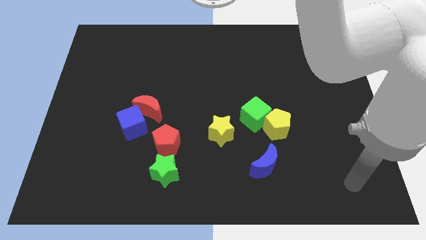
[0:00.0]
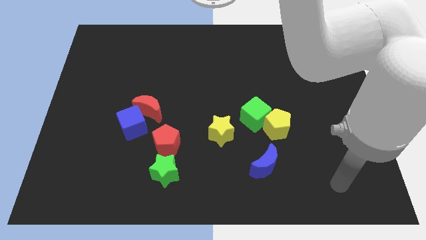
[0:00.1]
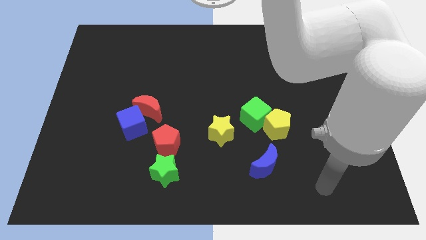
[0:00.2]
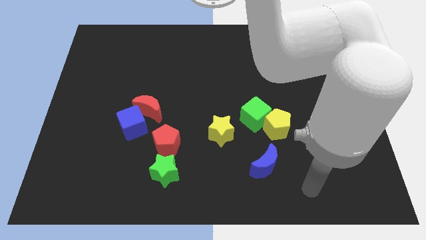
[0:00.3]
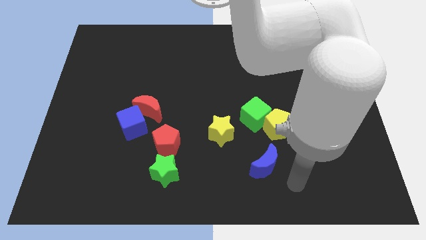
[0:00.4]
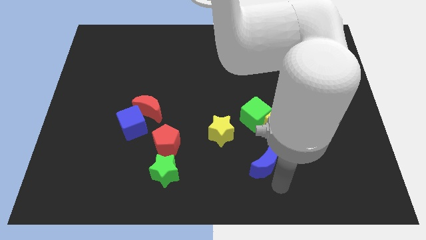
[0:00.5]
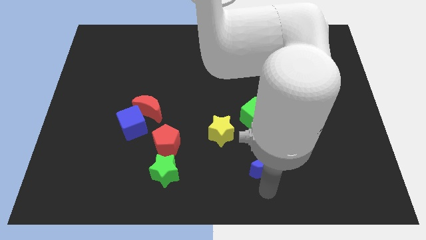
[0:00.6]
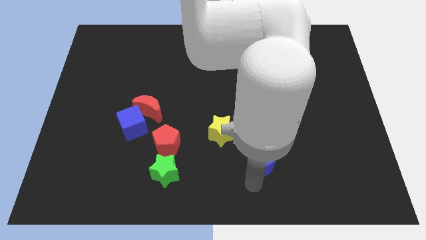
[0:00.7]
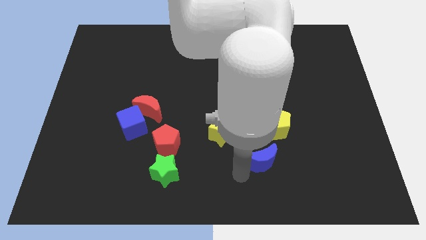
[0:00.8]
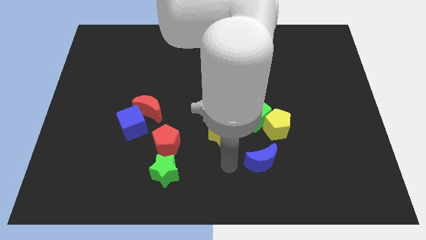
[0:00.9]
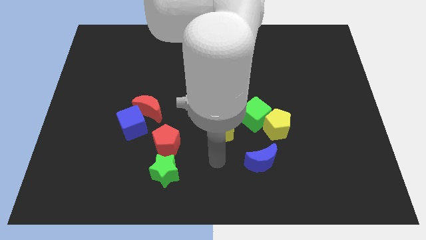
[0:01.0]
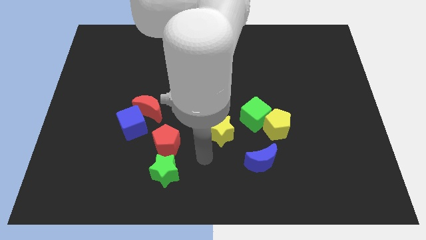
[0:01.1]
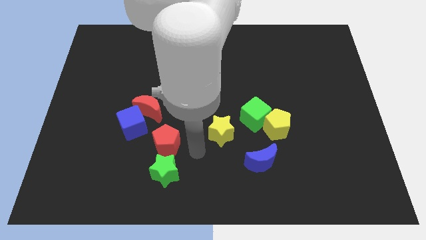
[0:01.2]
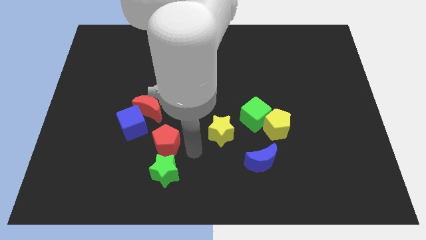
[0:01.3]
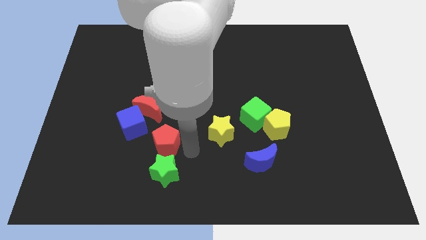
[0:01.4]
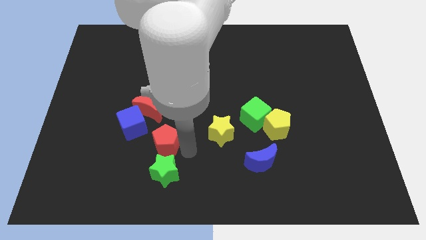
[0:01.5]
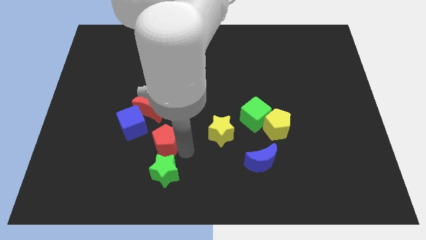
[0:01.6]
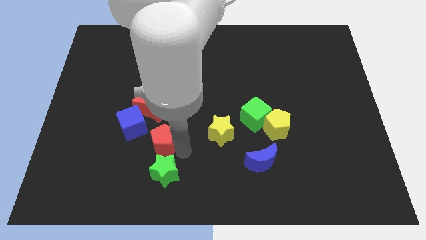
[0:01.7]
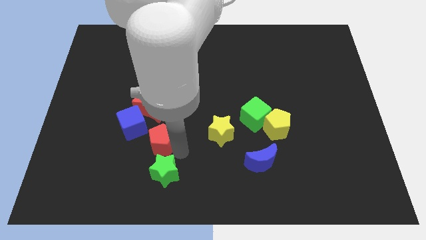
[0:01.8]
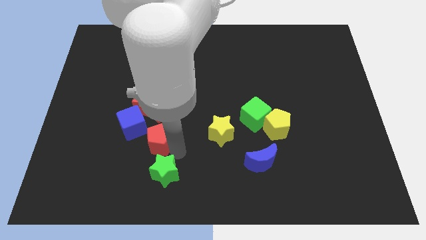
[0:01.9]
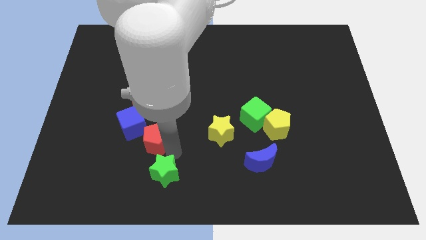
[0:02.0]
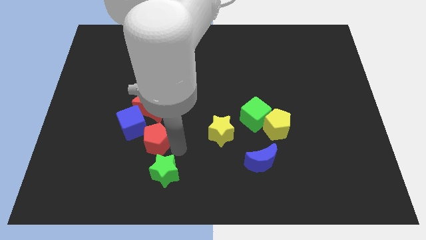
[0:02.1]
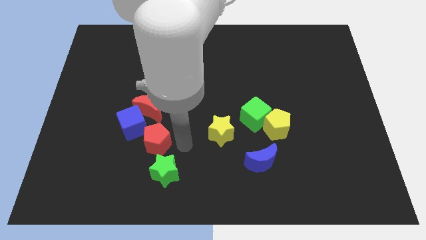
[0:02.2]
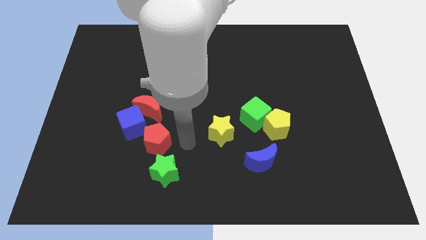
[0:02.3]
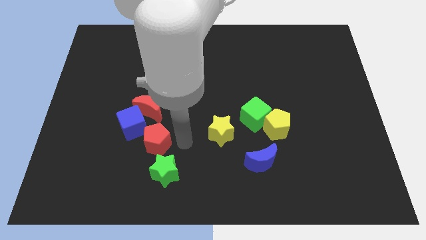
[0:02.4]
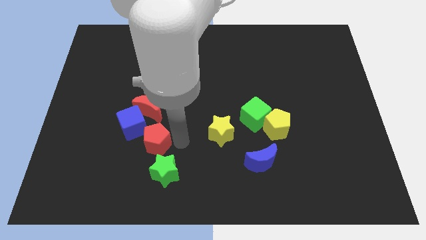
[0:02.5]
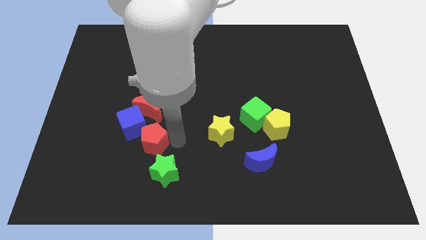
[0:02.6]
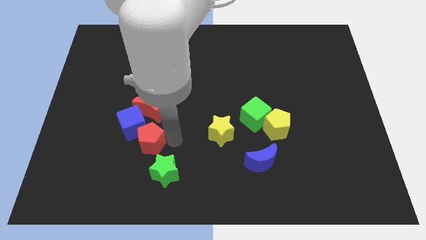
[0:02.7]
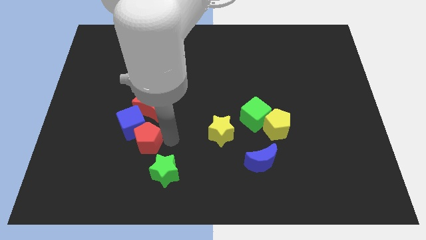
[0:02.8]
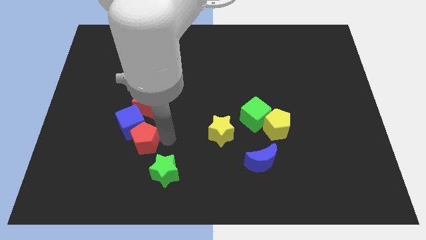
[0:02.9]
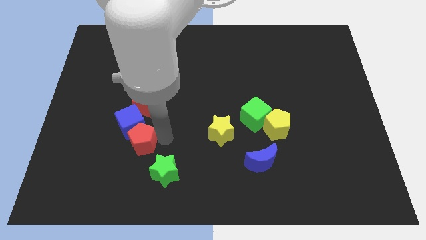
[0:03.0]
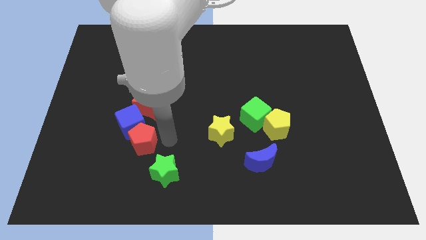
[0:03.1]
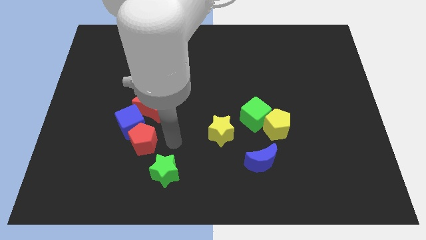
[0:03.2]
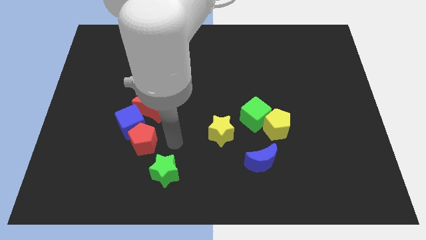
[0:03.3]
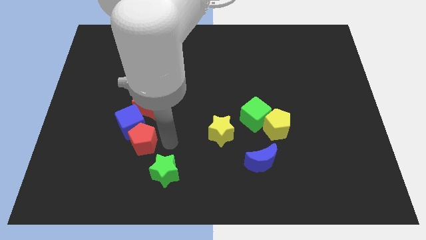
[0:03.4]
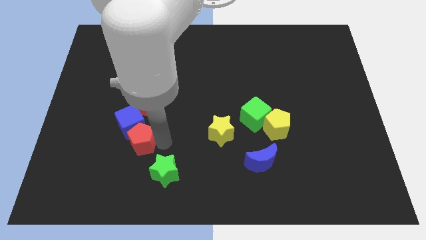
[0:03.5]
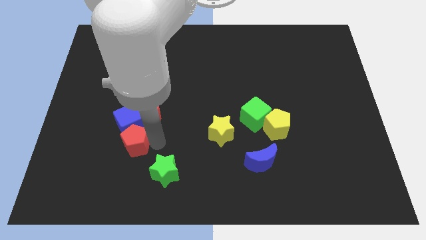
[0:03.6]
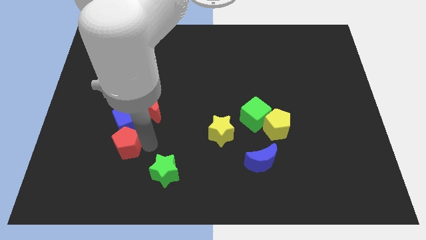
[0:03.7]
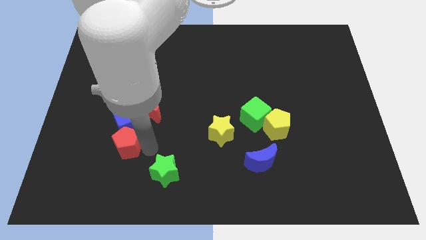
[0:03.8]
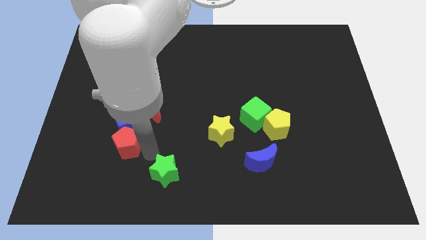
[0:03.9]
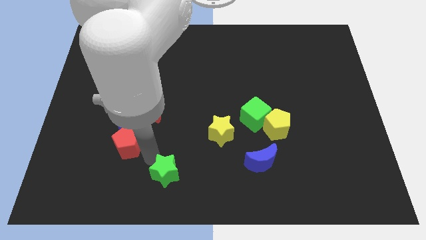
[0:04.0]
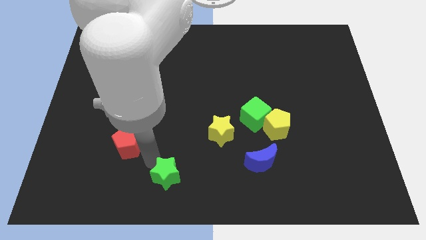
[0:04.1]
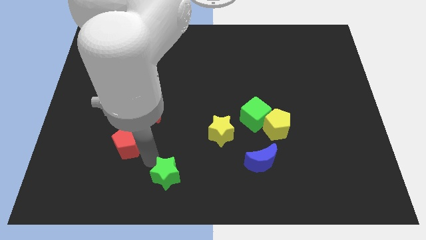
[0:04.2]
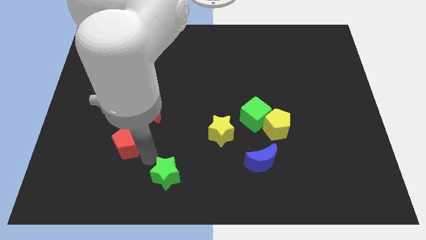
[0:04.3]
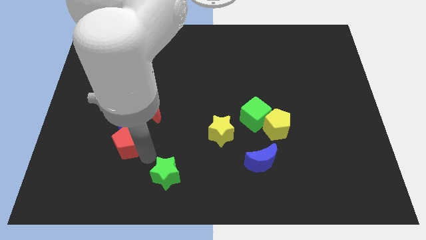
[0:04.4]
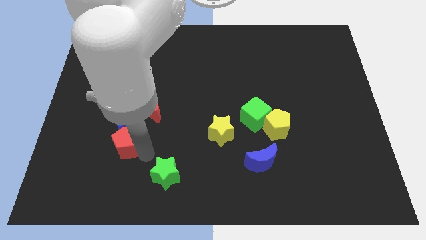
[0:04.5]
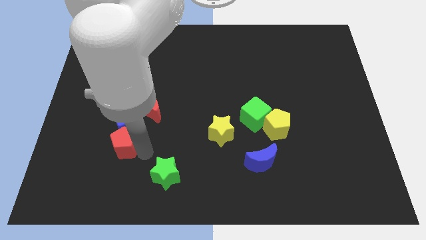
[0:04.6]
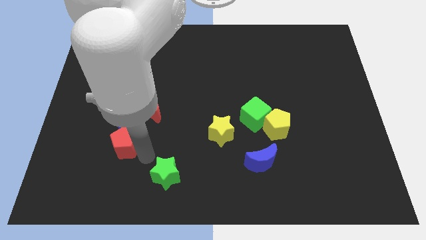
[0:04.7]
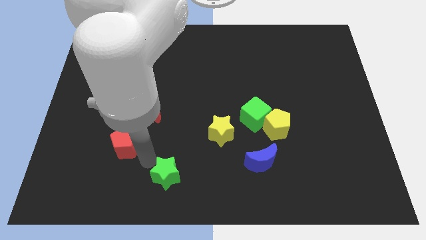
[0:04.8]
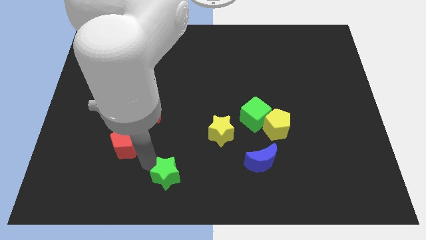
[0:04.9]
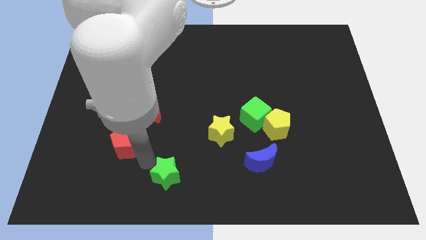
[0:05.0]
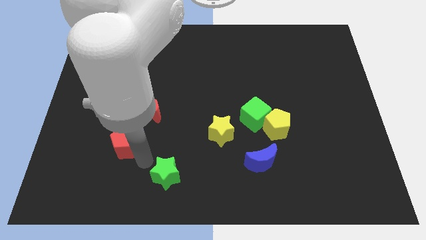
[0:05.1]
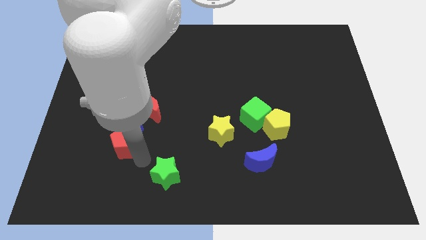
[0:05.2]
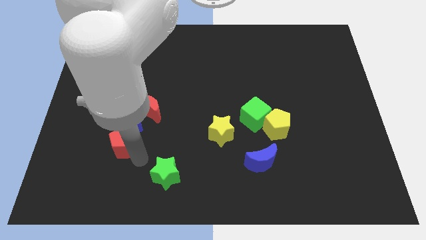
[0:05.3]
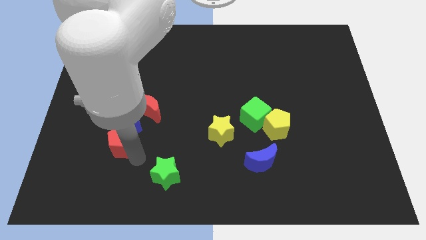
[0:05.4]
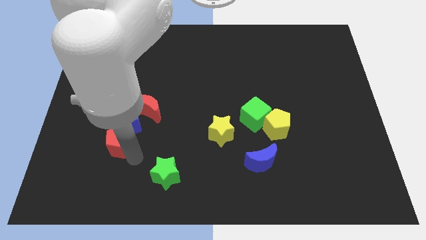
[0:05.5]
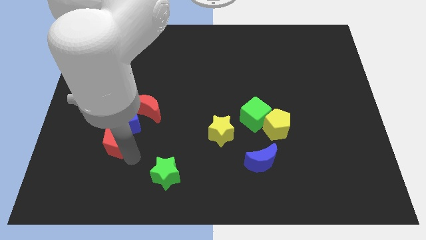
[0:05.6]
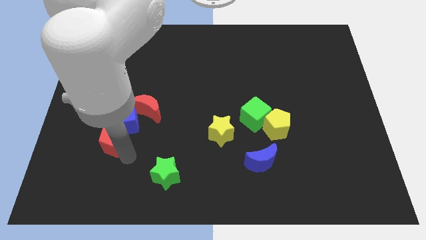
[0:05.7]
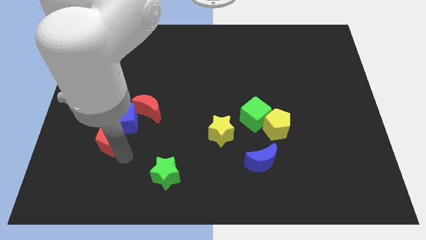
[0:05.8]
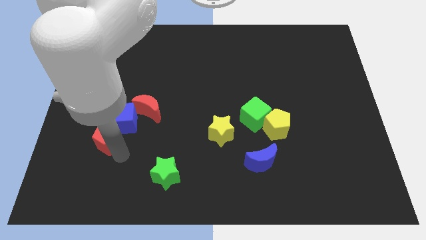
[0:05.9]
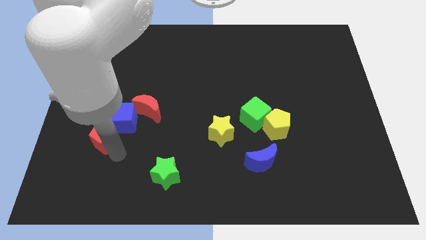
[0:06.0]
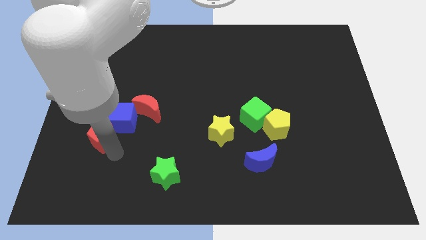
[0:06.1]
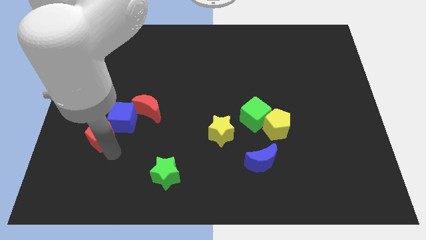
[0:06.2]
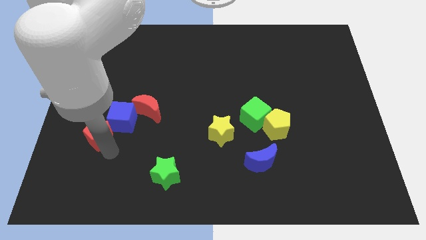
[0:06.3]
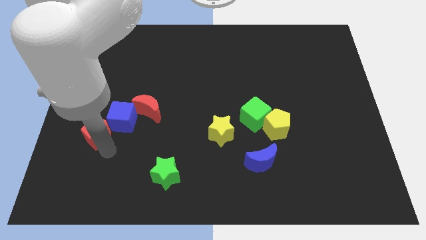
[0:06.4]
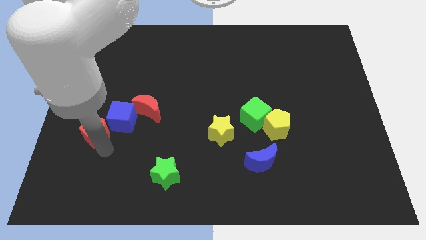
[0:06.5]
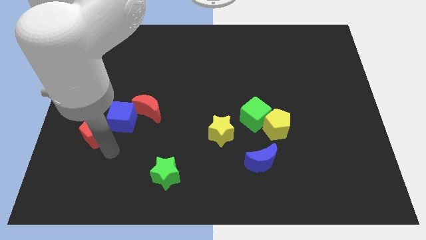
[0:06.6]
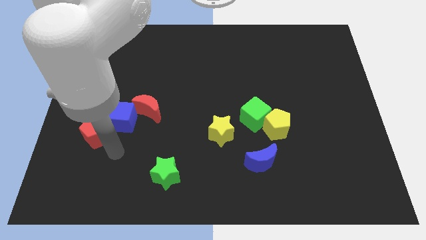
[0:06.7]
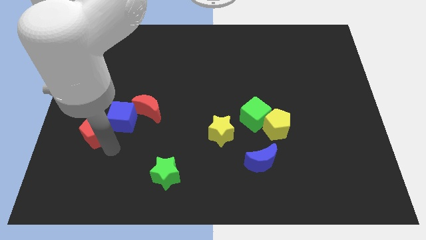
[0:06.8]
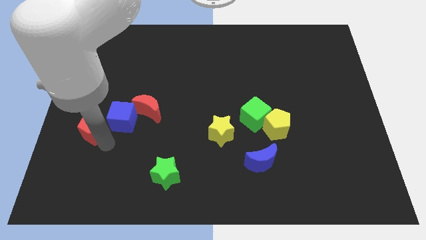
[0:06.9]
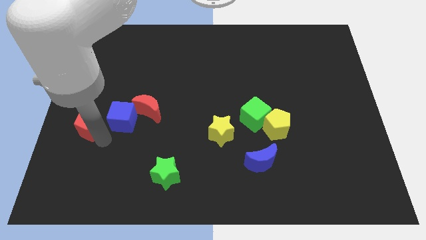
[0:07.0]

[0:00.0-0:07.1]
move the red pentagon to the center left
